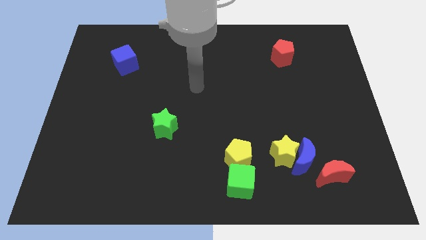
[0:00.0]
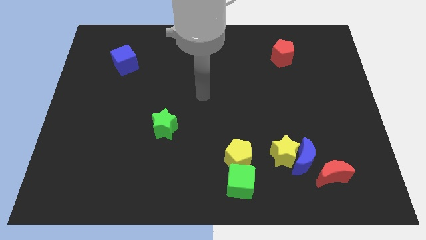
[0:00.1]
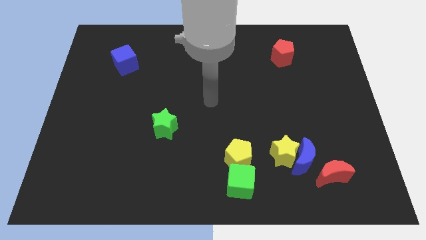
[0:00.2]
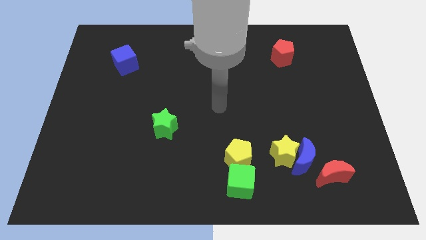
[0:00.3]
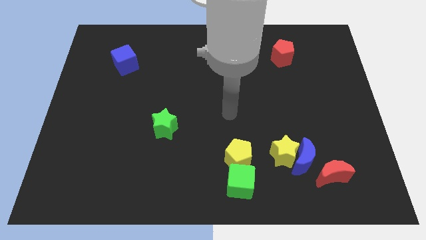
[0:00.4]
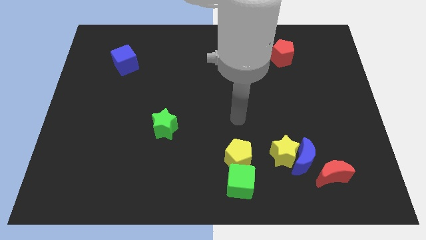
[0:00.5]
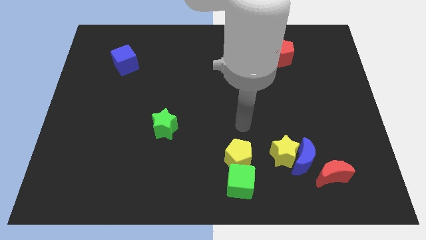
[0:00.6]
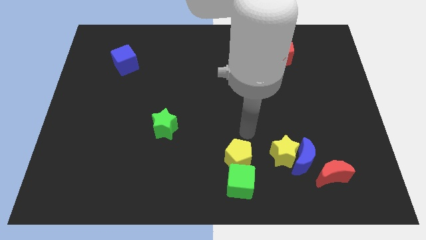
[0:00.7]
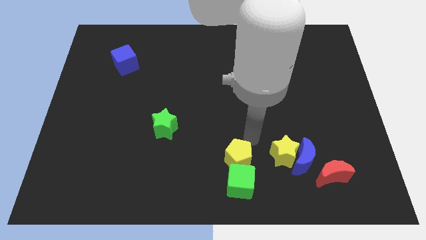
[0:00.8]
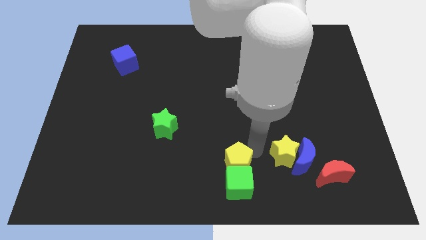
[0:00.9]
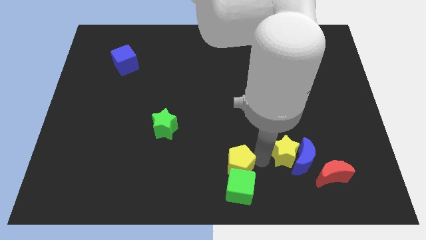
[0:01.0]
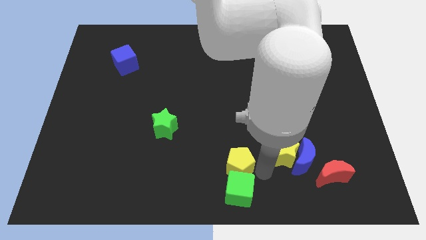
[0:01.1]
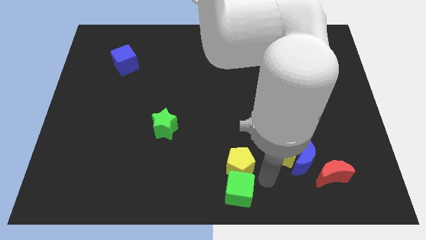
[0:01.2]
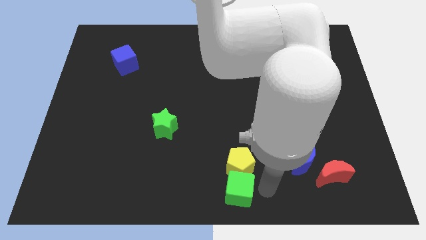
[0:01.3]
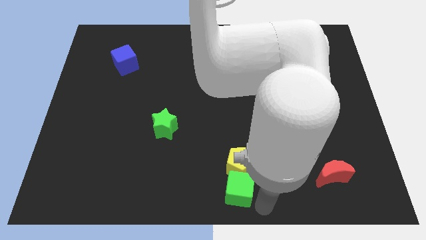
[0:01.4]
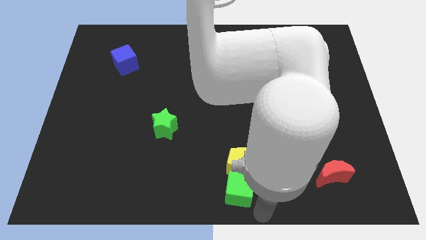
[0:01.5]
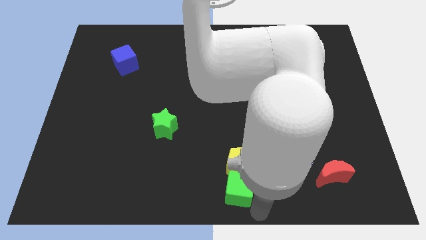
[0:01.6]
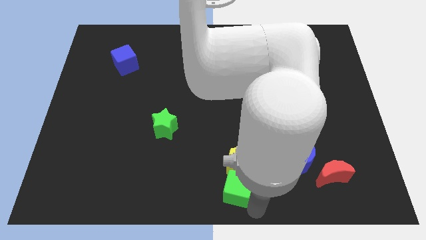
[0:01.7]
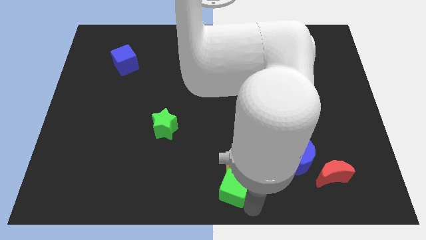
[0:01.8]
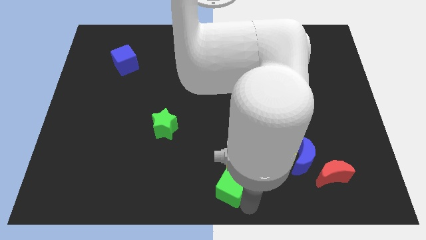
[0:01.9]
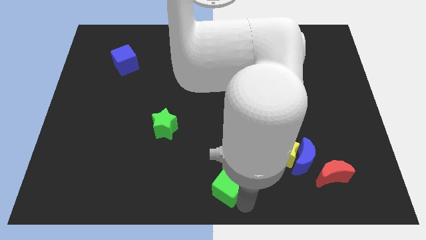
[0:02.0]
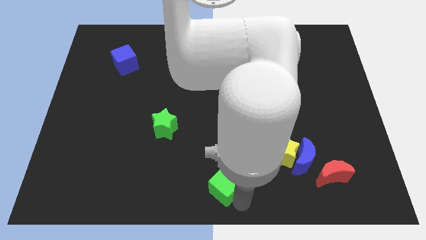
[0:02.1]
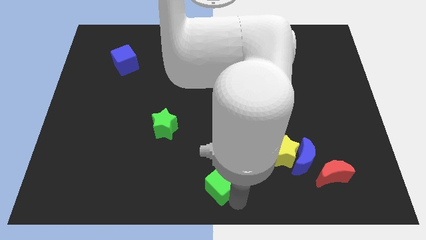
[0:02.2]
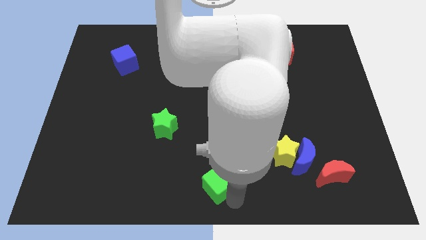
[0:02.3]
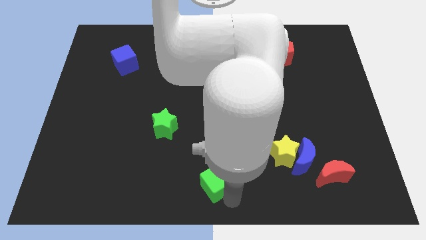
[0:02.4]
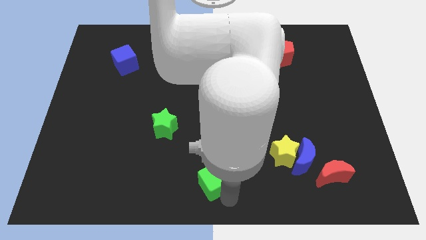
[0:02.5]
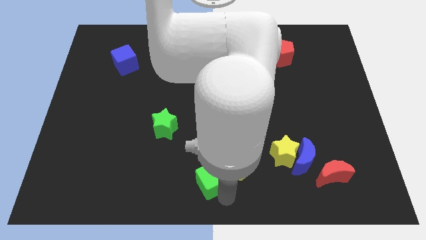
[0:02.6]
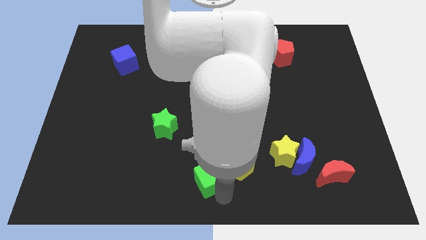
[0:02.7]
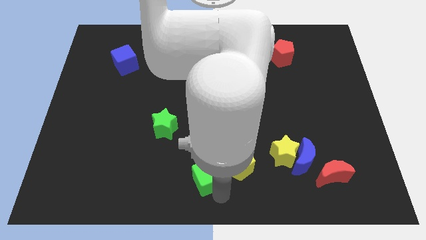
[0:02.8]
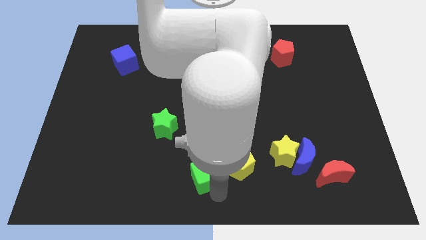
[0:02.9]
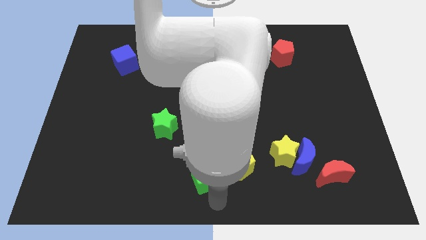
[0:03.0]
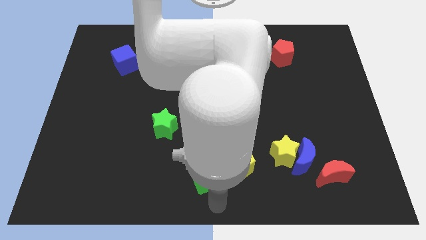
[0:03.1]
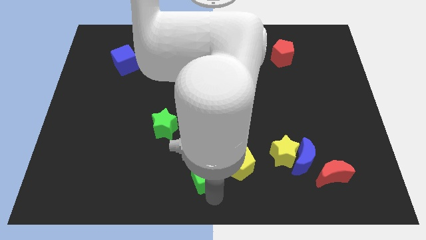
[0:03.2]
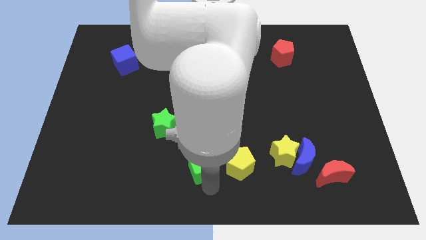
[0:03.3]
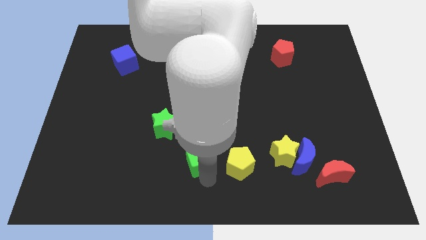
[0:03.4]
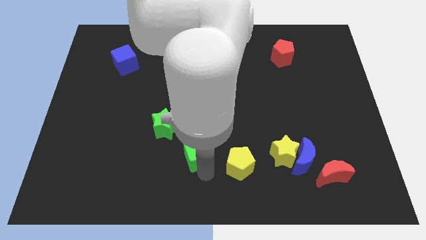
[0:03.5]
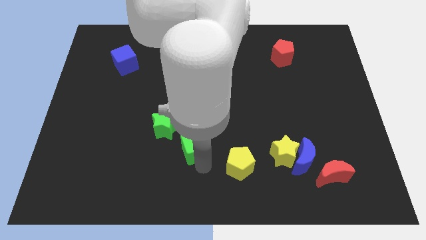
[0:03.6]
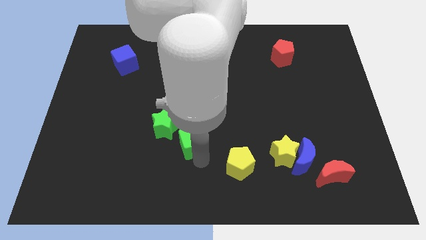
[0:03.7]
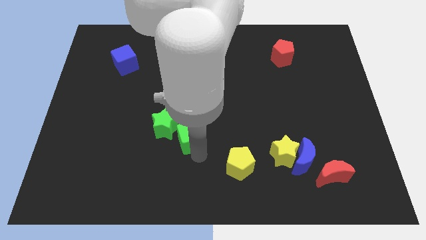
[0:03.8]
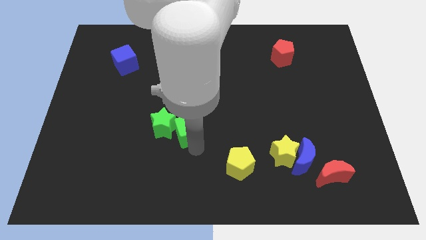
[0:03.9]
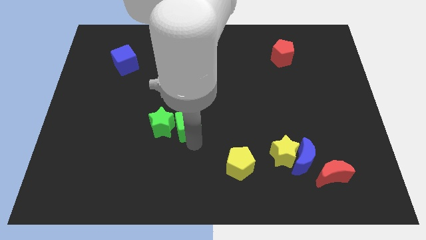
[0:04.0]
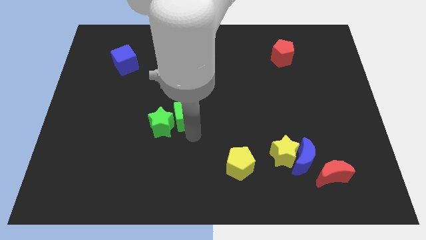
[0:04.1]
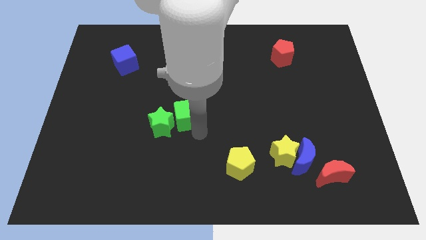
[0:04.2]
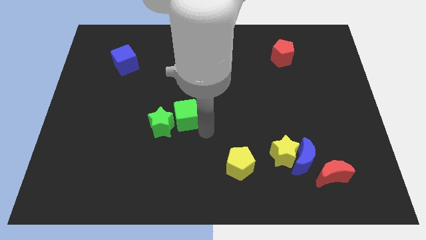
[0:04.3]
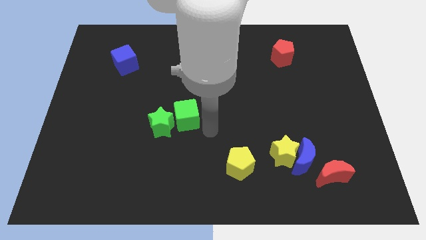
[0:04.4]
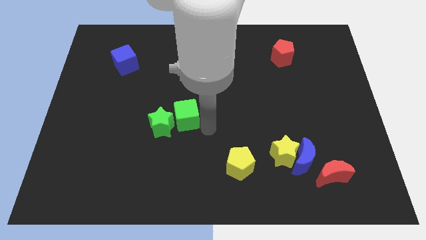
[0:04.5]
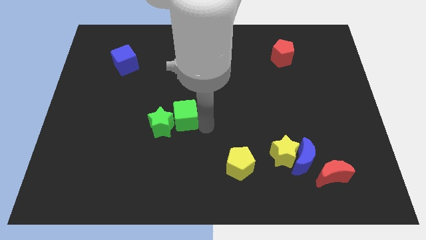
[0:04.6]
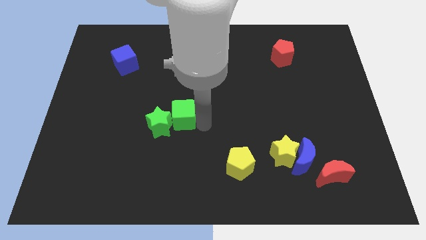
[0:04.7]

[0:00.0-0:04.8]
slide the green cube up and to the left diagonally

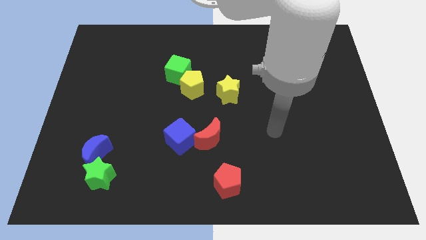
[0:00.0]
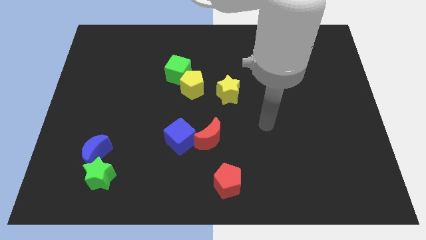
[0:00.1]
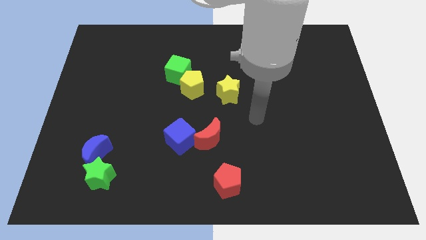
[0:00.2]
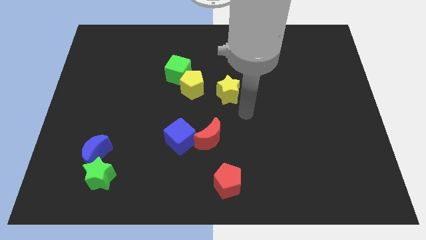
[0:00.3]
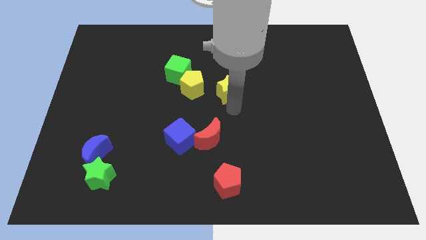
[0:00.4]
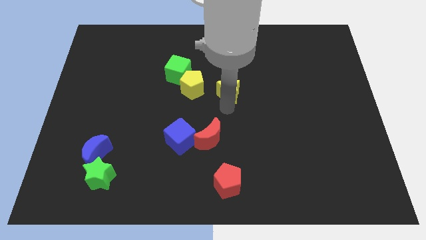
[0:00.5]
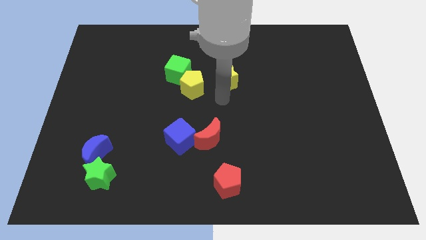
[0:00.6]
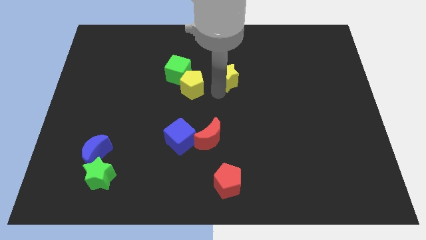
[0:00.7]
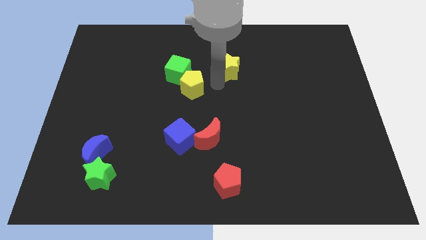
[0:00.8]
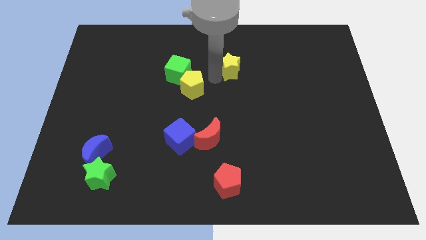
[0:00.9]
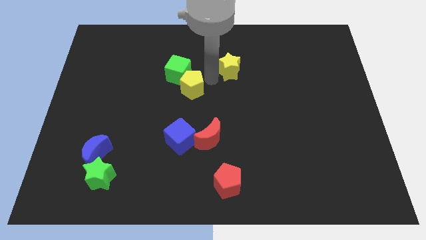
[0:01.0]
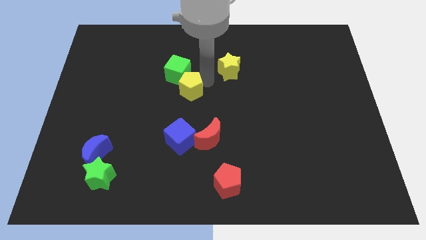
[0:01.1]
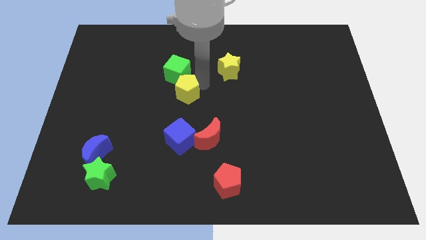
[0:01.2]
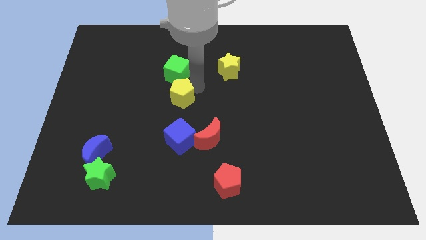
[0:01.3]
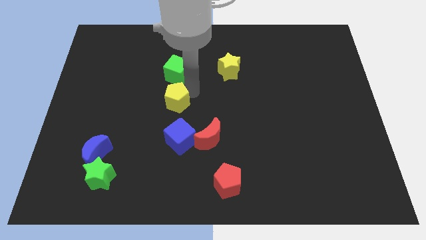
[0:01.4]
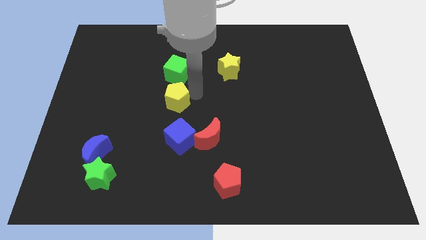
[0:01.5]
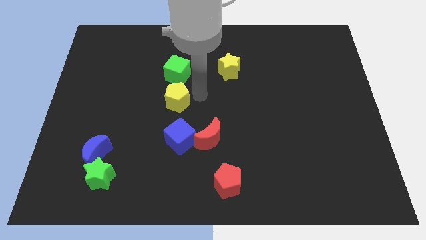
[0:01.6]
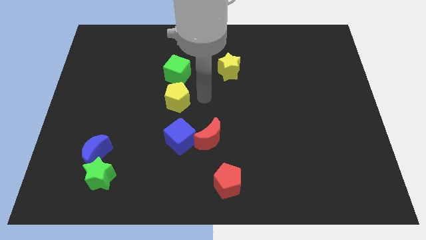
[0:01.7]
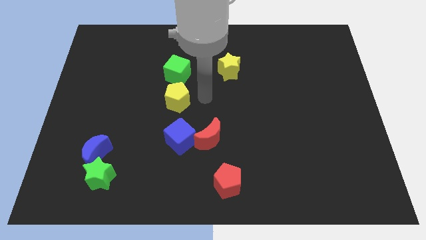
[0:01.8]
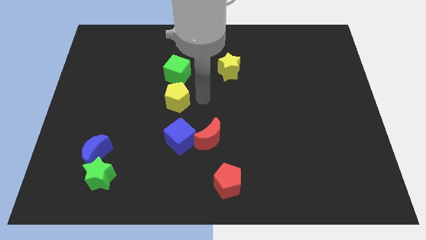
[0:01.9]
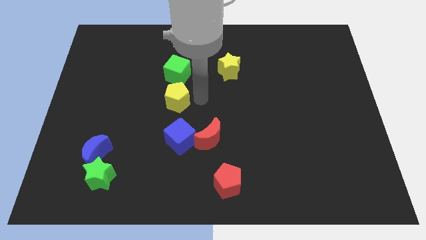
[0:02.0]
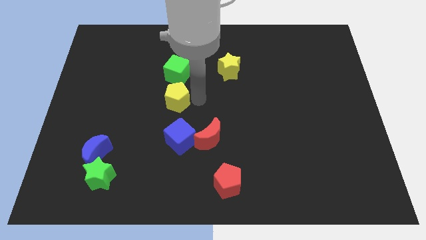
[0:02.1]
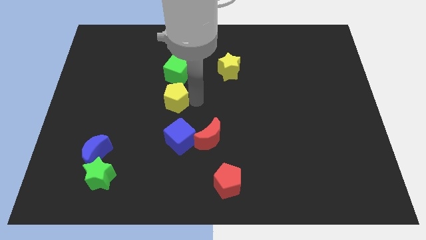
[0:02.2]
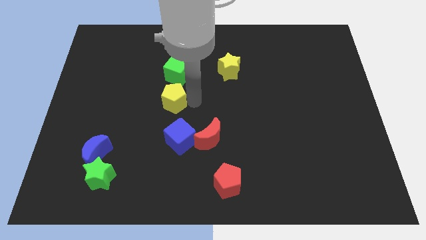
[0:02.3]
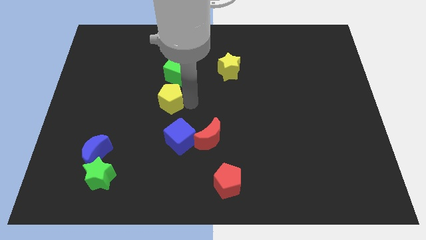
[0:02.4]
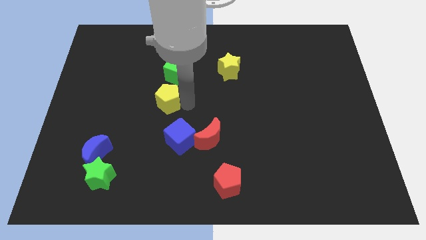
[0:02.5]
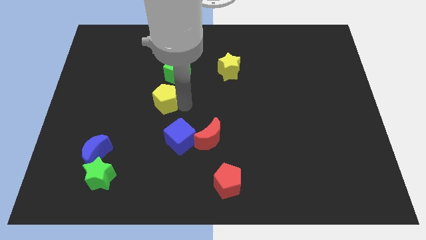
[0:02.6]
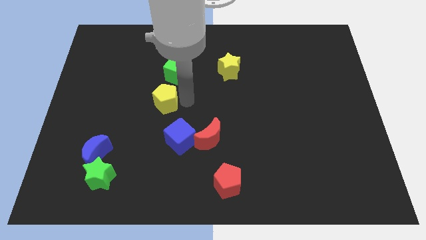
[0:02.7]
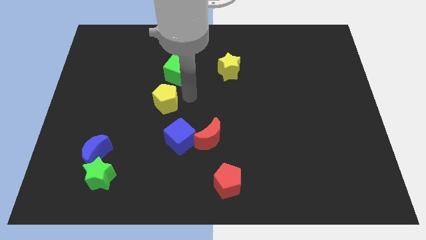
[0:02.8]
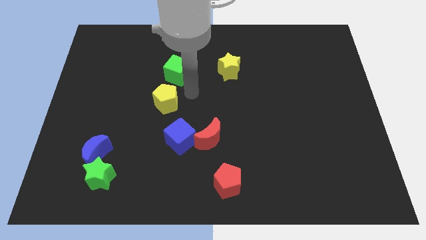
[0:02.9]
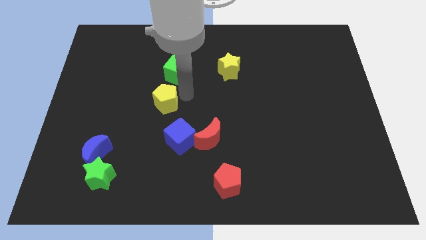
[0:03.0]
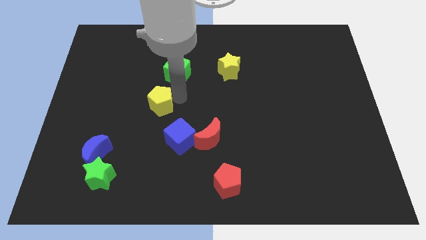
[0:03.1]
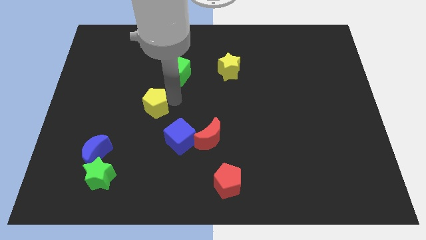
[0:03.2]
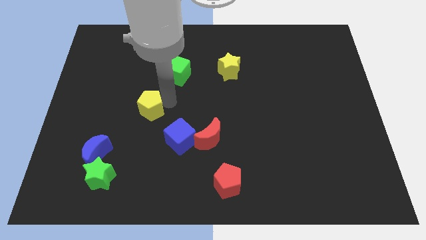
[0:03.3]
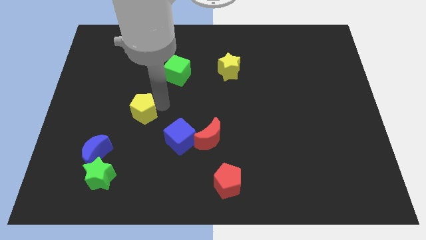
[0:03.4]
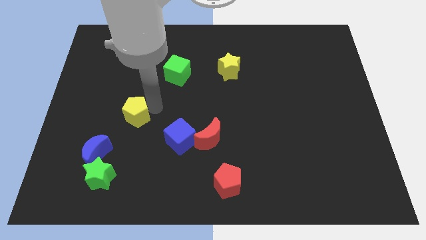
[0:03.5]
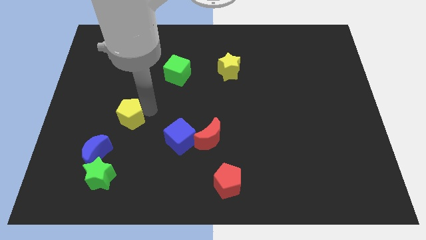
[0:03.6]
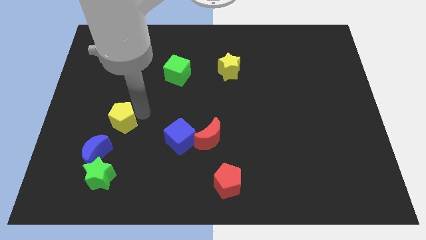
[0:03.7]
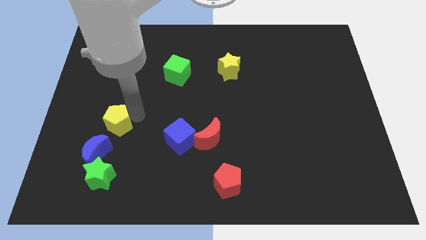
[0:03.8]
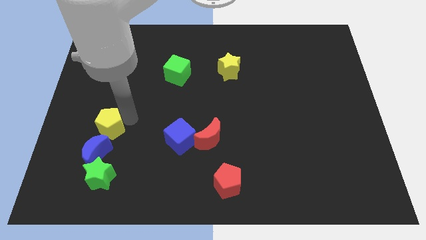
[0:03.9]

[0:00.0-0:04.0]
move the yellow pentagon downwards and left diagonally
